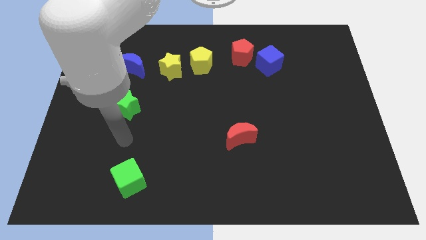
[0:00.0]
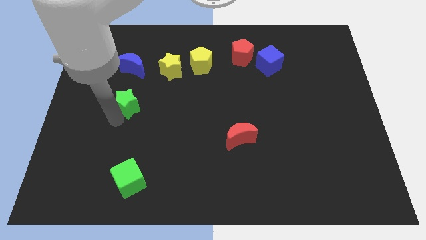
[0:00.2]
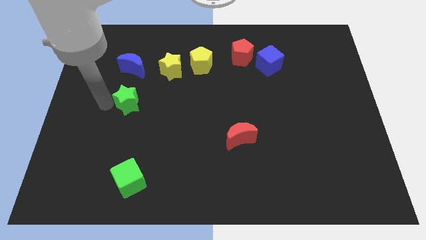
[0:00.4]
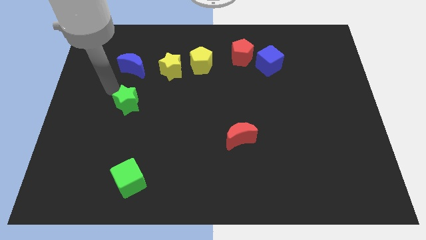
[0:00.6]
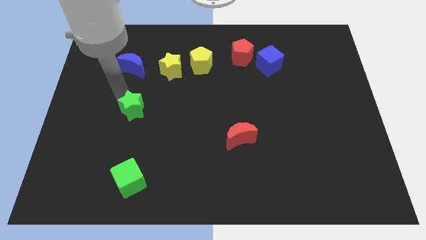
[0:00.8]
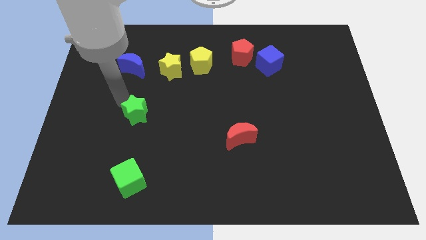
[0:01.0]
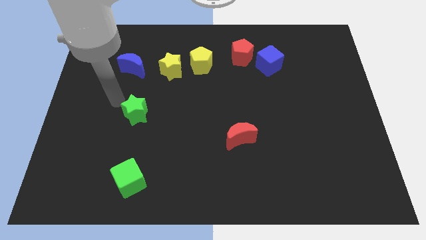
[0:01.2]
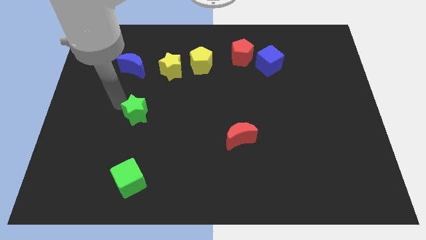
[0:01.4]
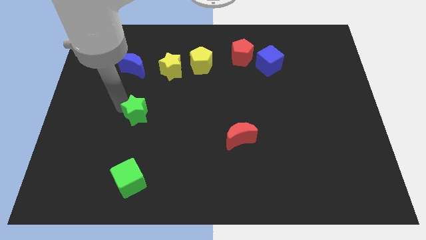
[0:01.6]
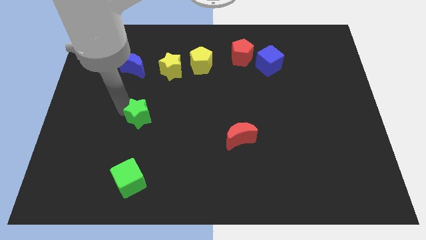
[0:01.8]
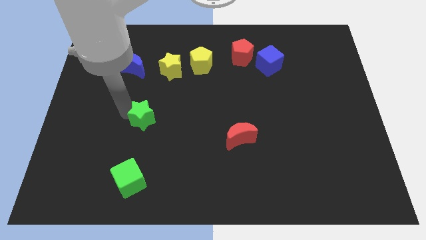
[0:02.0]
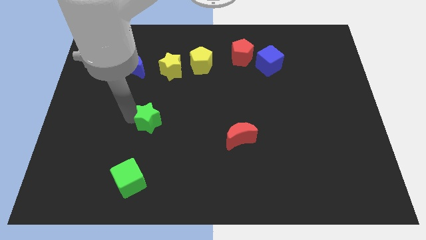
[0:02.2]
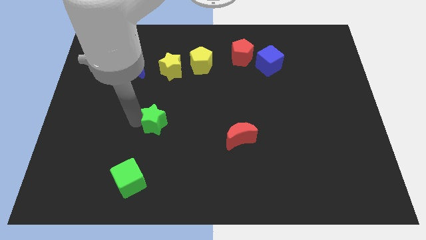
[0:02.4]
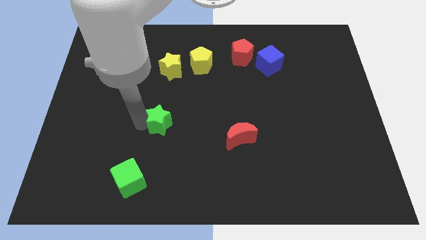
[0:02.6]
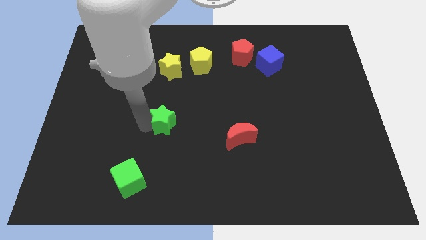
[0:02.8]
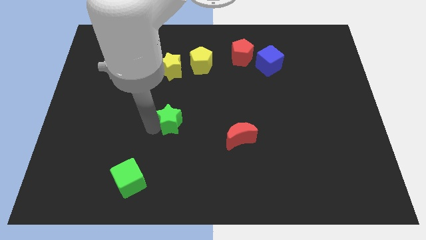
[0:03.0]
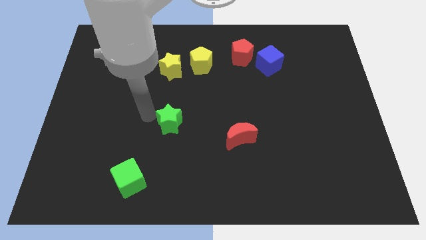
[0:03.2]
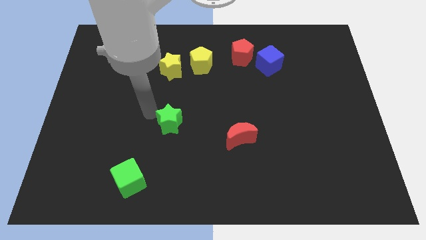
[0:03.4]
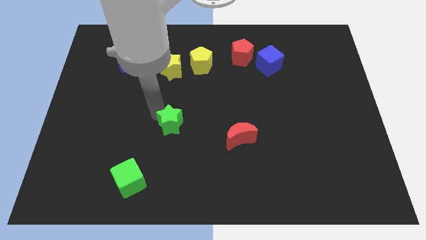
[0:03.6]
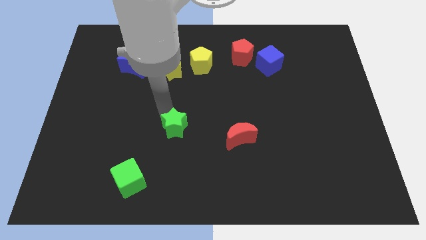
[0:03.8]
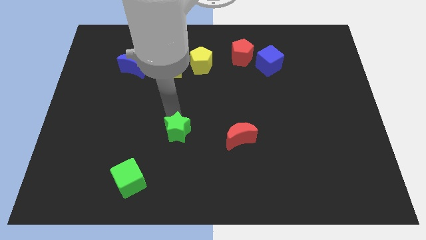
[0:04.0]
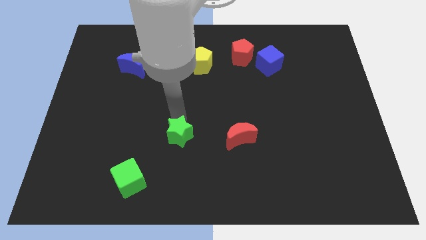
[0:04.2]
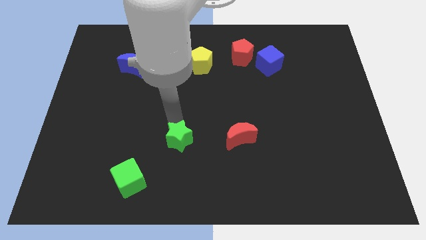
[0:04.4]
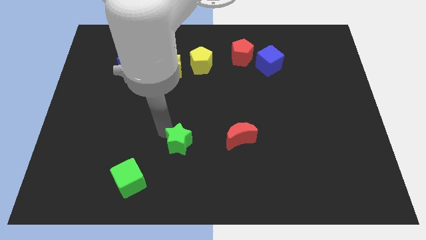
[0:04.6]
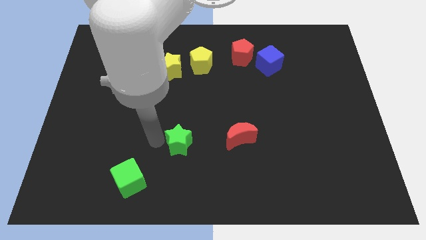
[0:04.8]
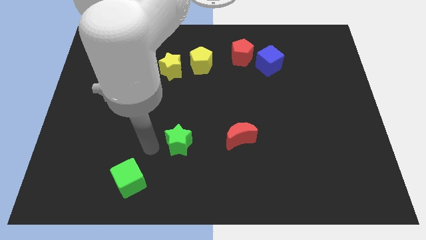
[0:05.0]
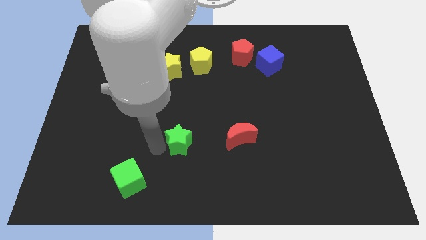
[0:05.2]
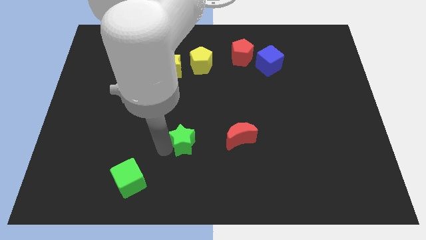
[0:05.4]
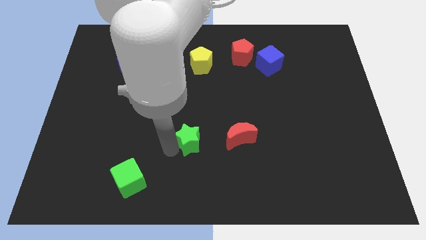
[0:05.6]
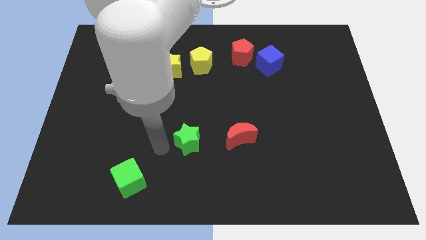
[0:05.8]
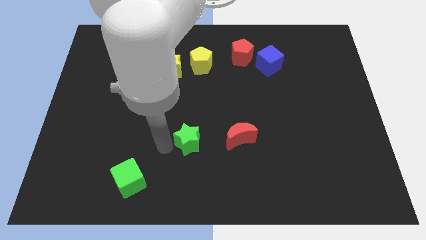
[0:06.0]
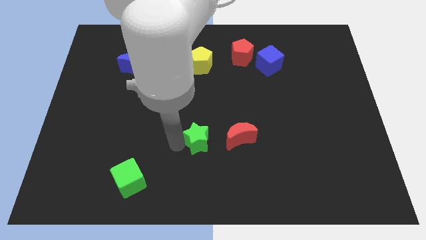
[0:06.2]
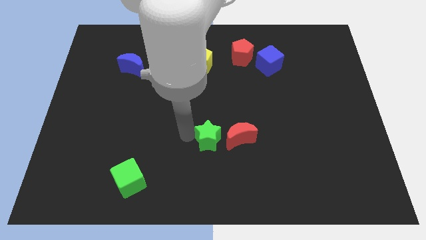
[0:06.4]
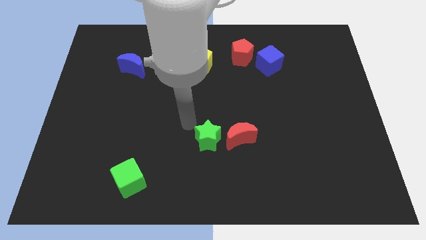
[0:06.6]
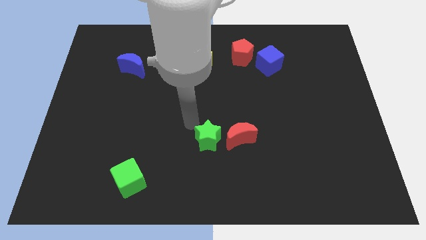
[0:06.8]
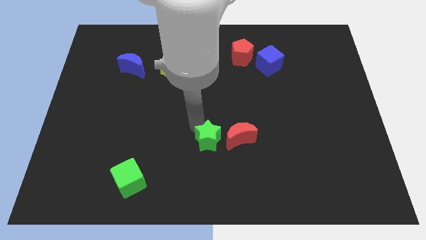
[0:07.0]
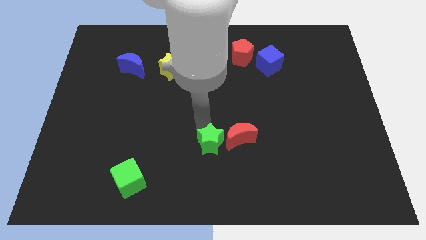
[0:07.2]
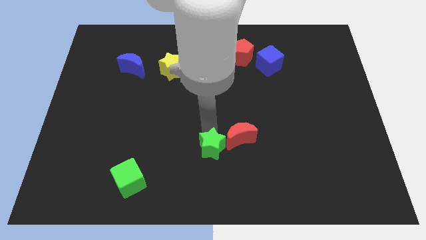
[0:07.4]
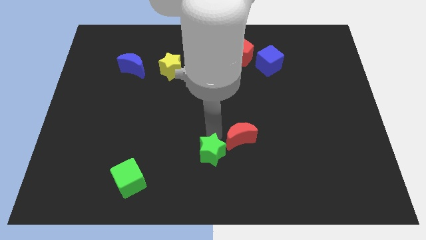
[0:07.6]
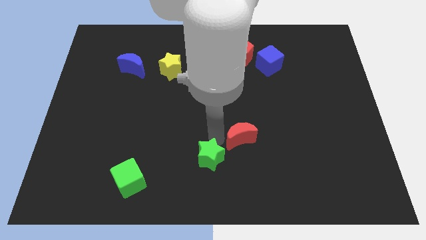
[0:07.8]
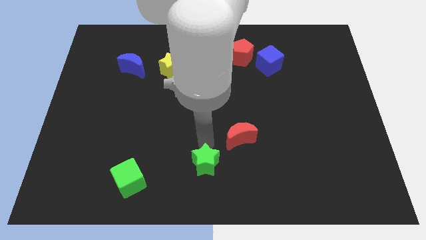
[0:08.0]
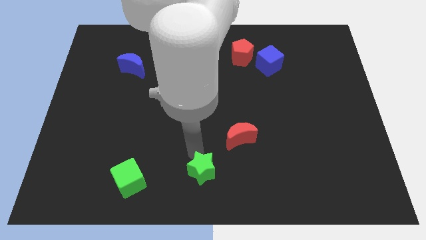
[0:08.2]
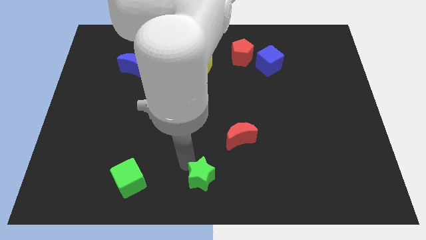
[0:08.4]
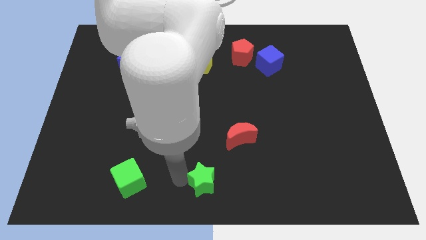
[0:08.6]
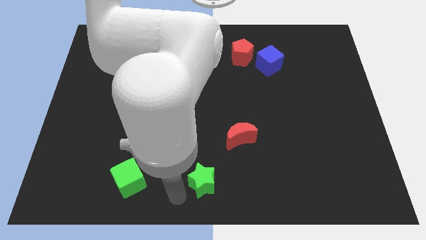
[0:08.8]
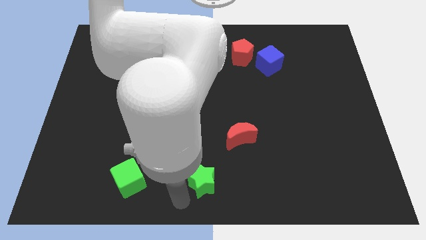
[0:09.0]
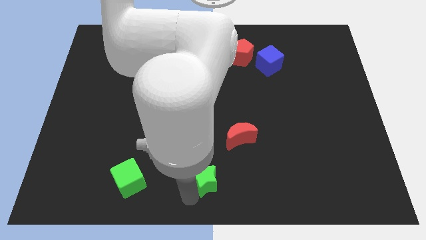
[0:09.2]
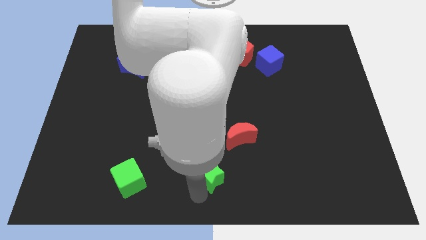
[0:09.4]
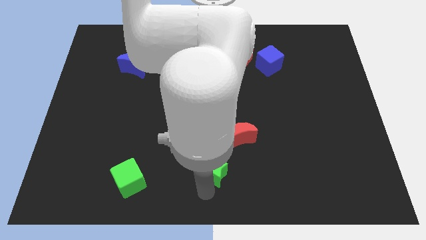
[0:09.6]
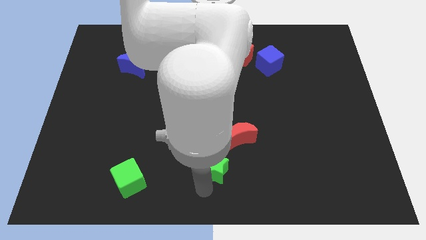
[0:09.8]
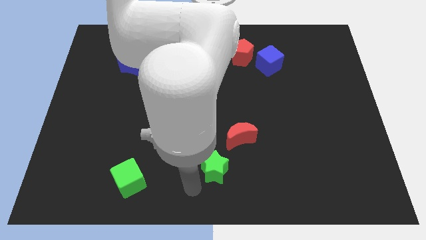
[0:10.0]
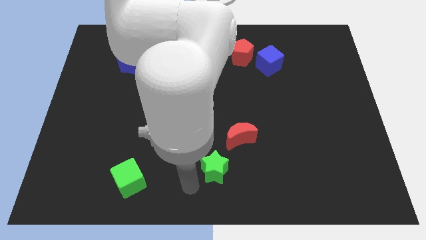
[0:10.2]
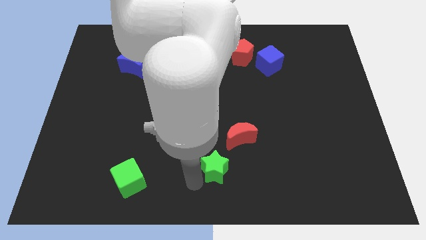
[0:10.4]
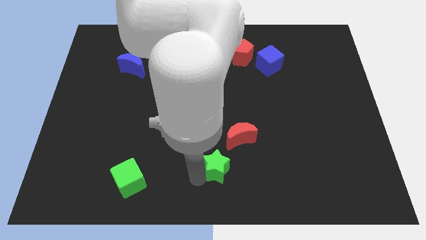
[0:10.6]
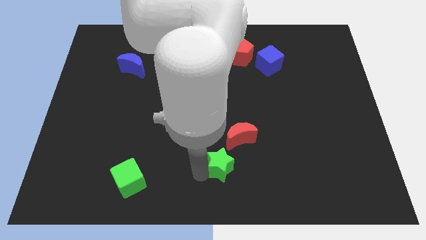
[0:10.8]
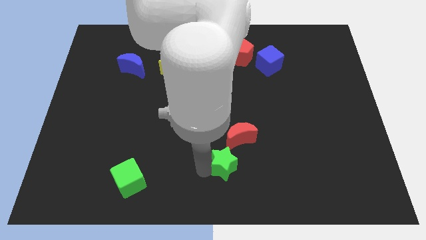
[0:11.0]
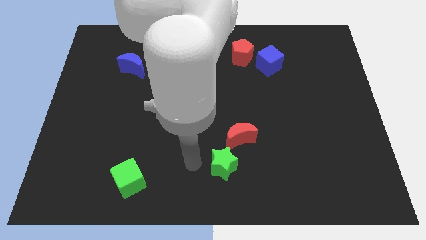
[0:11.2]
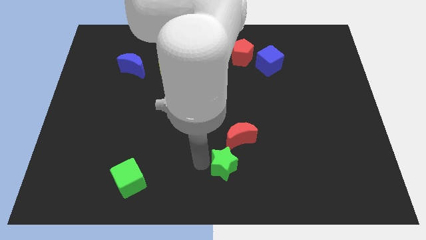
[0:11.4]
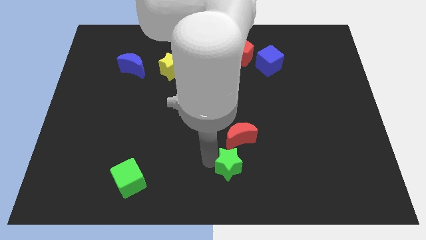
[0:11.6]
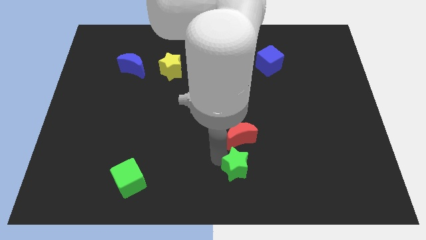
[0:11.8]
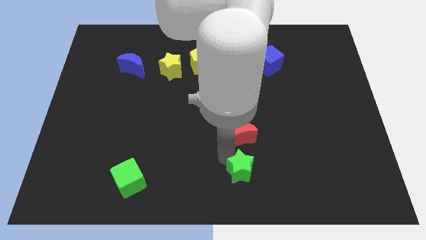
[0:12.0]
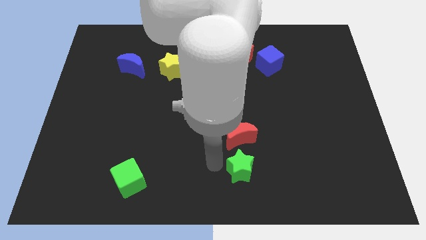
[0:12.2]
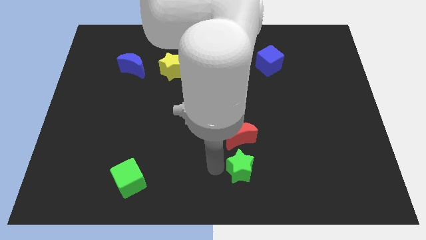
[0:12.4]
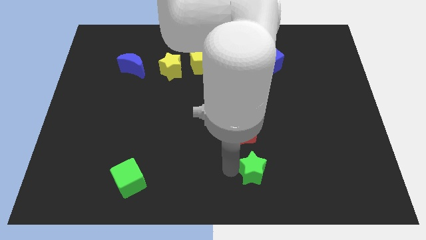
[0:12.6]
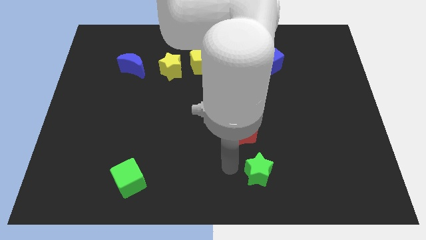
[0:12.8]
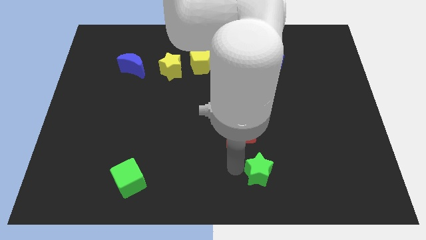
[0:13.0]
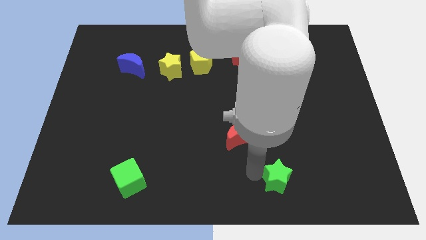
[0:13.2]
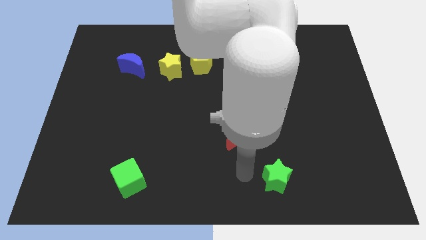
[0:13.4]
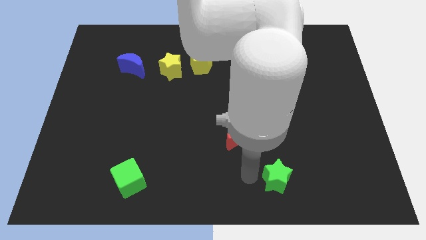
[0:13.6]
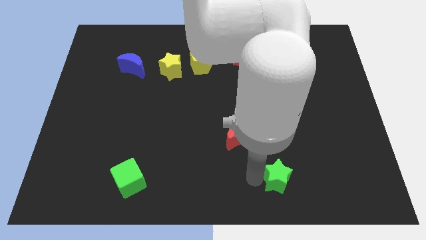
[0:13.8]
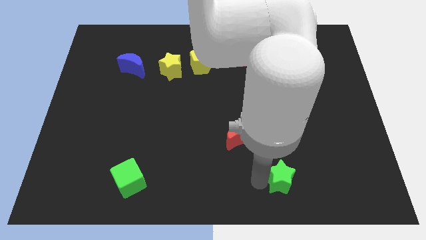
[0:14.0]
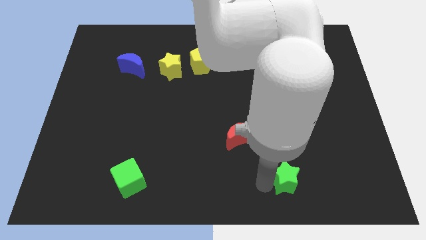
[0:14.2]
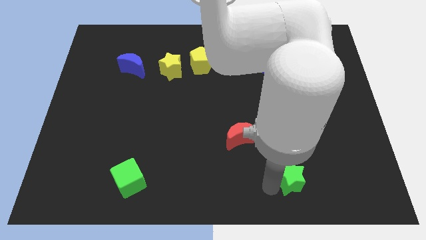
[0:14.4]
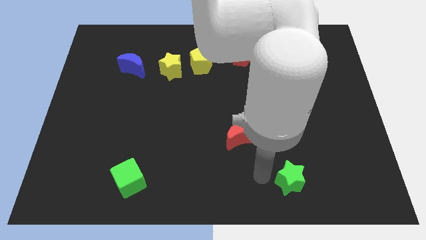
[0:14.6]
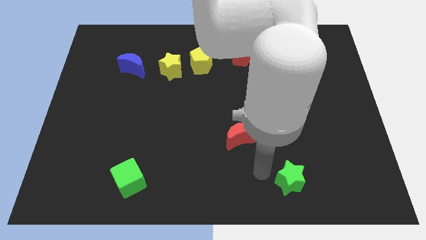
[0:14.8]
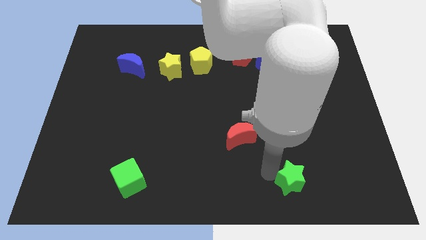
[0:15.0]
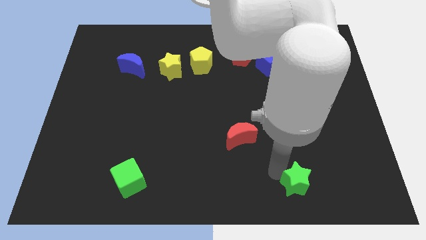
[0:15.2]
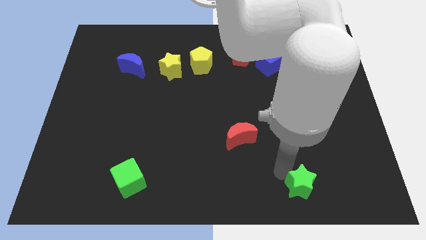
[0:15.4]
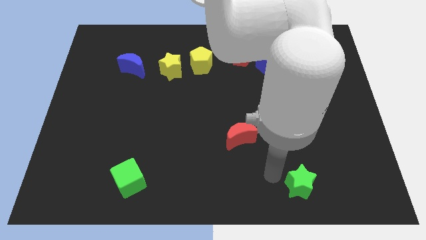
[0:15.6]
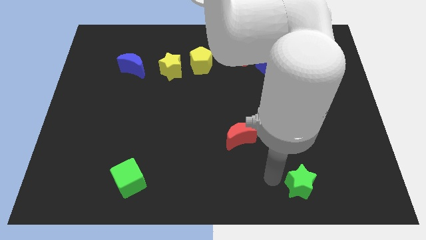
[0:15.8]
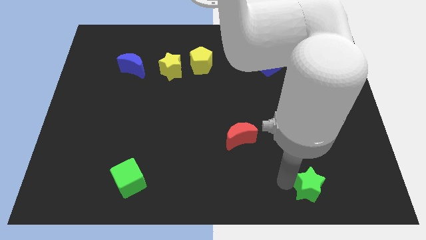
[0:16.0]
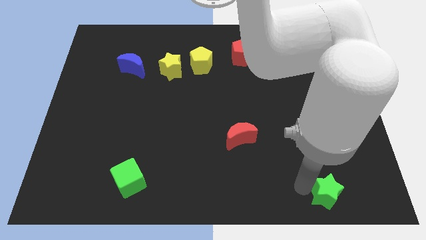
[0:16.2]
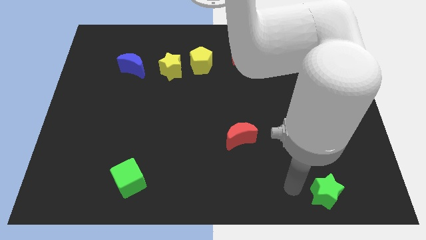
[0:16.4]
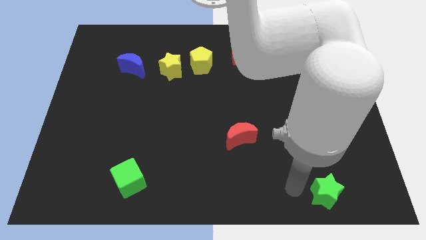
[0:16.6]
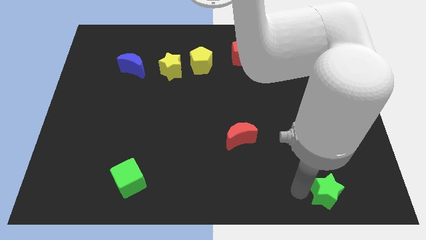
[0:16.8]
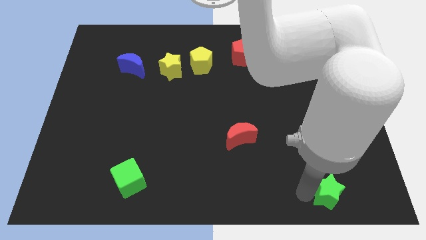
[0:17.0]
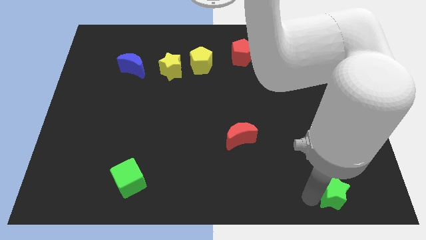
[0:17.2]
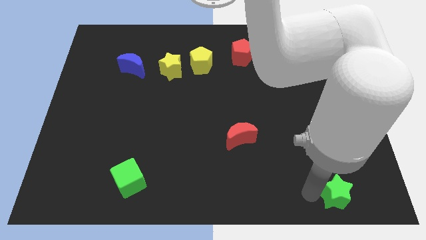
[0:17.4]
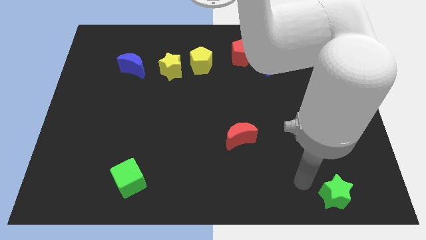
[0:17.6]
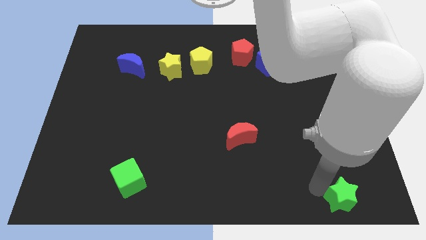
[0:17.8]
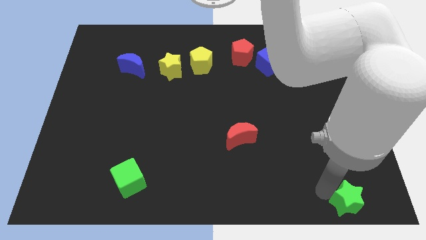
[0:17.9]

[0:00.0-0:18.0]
put the green star to the bottom right
